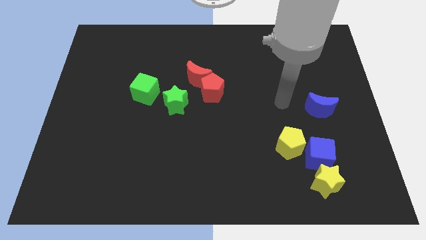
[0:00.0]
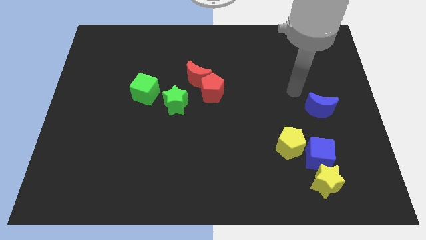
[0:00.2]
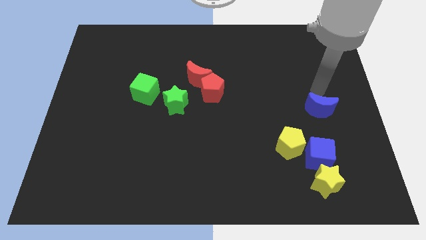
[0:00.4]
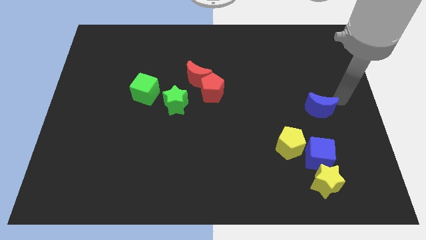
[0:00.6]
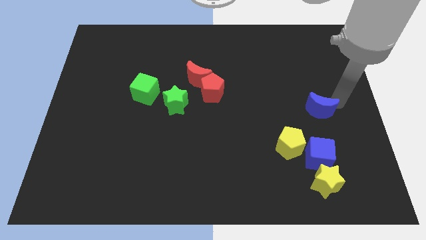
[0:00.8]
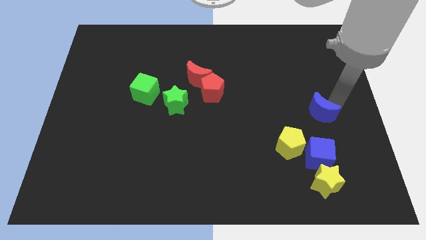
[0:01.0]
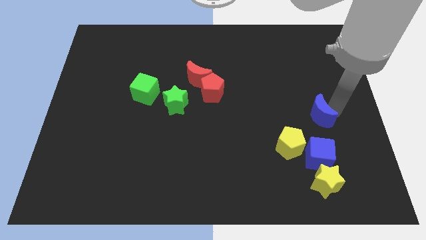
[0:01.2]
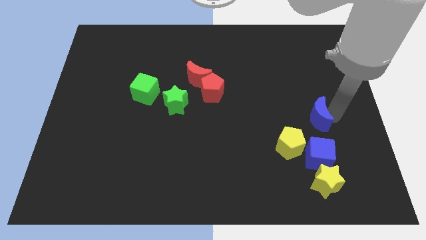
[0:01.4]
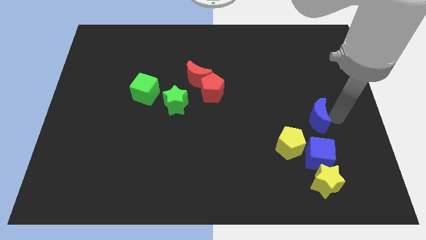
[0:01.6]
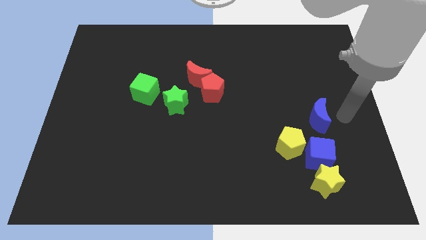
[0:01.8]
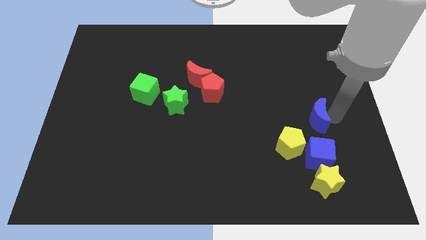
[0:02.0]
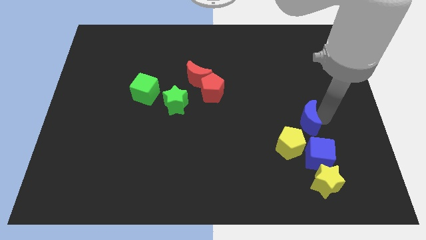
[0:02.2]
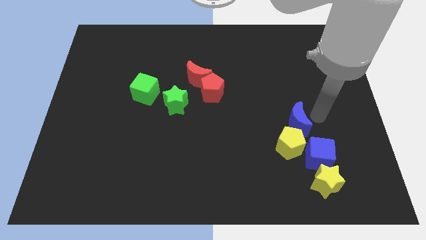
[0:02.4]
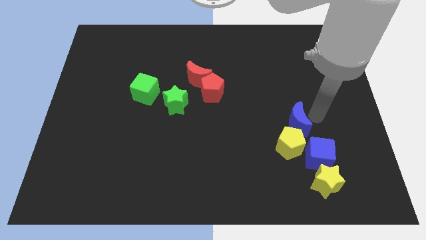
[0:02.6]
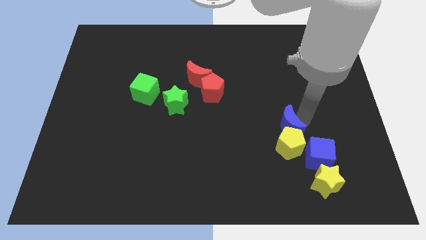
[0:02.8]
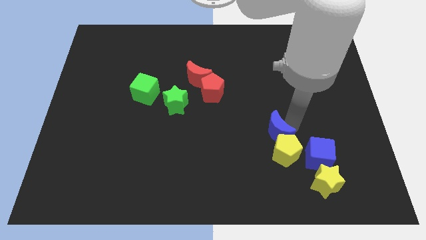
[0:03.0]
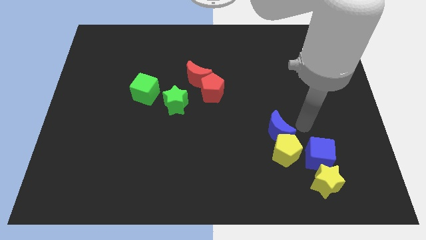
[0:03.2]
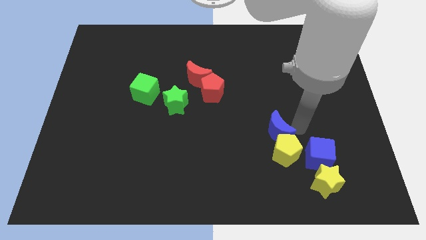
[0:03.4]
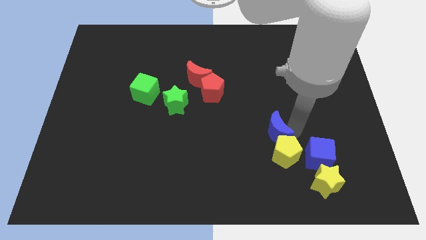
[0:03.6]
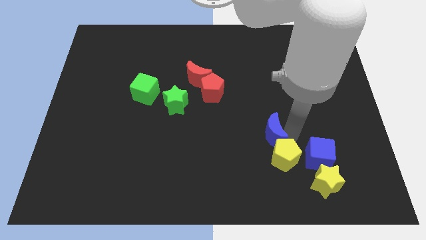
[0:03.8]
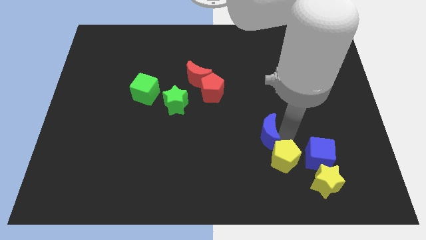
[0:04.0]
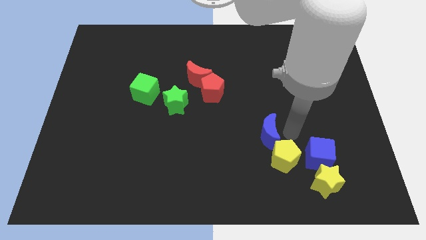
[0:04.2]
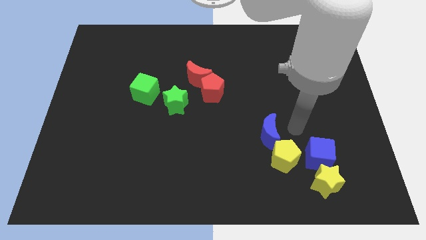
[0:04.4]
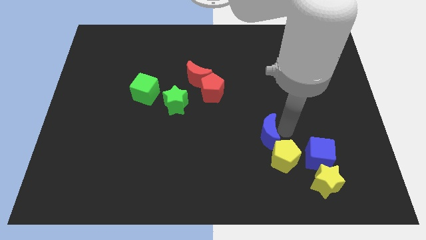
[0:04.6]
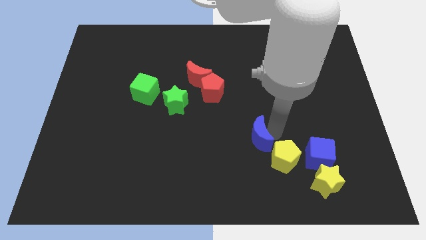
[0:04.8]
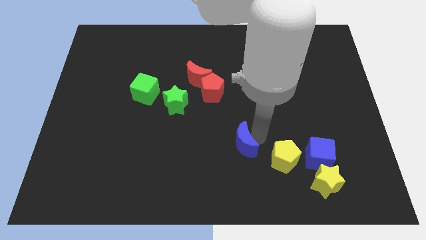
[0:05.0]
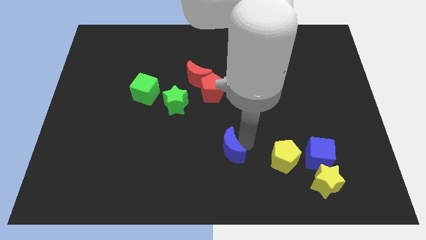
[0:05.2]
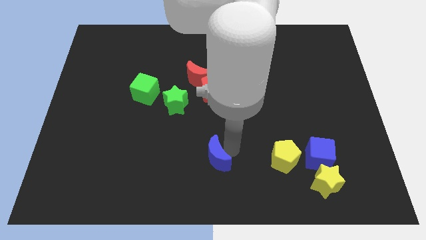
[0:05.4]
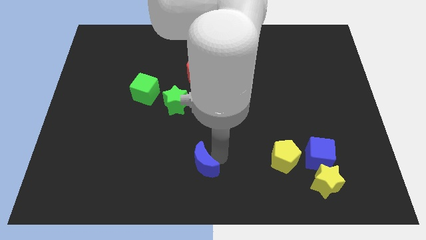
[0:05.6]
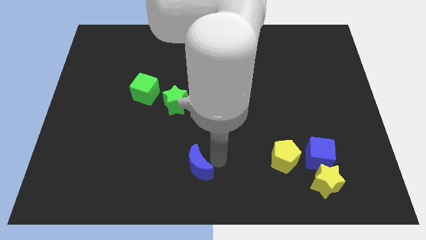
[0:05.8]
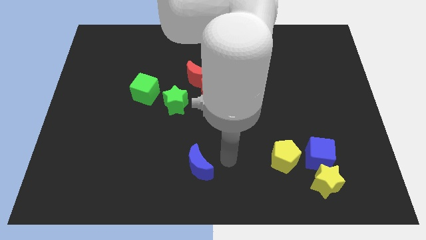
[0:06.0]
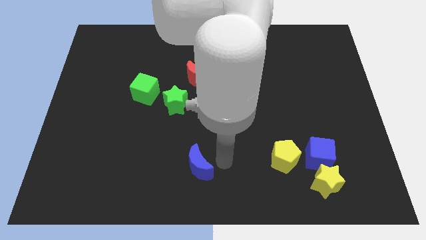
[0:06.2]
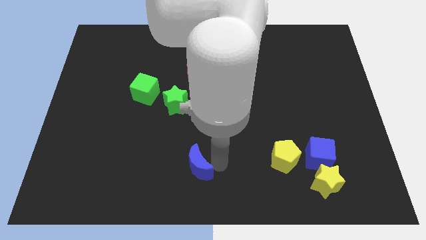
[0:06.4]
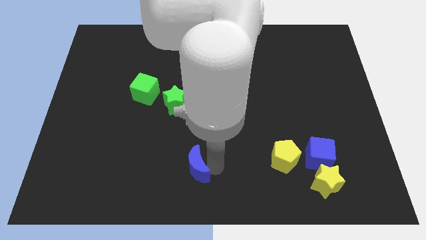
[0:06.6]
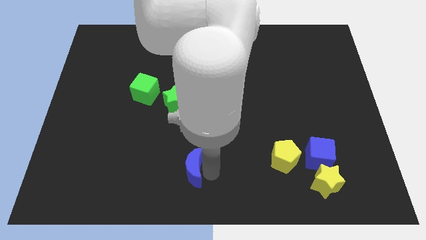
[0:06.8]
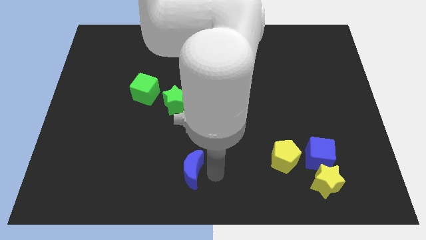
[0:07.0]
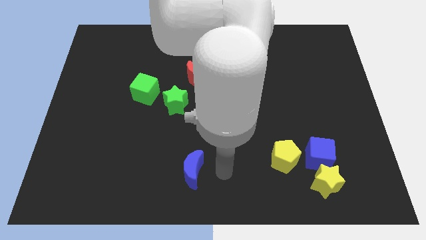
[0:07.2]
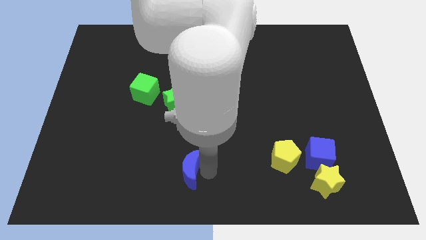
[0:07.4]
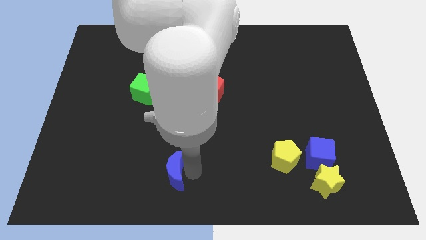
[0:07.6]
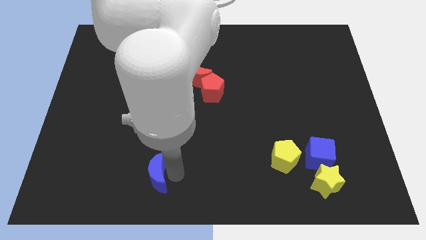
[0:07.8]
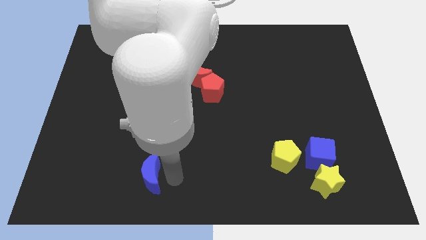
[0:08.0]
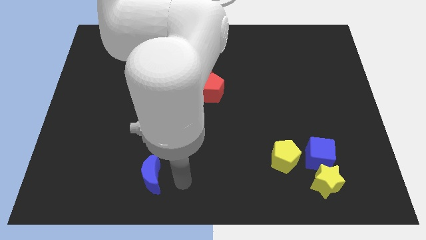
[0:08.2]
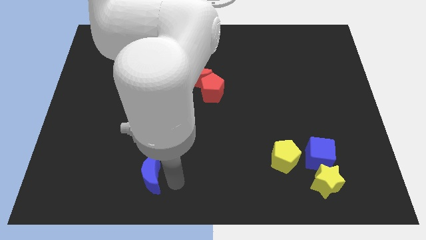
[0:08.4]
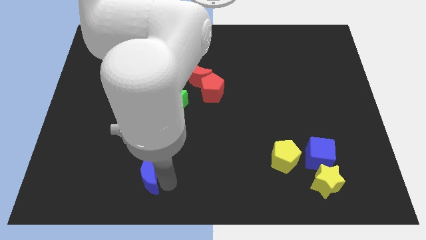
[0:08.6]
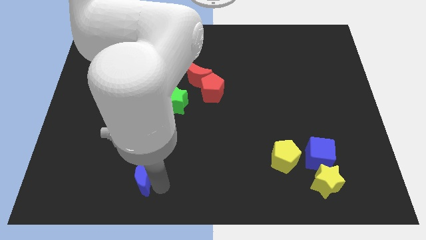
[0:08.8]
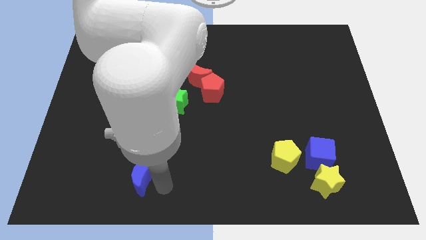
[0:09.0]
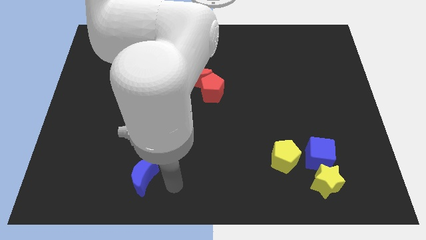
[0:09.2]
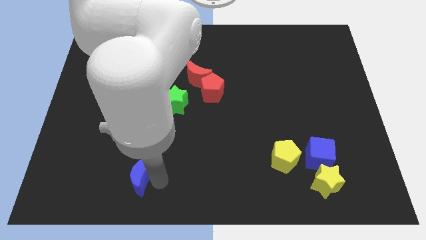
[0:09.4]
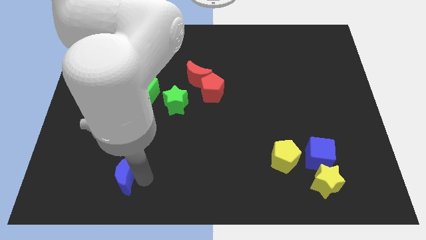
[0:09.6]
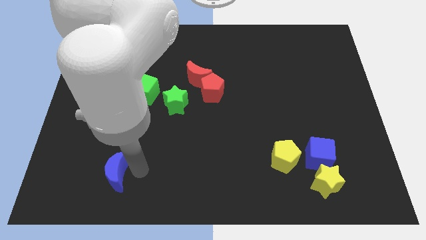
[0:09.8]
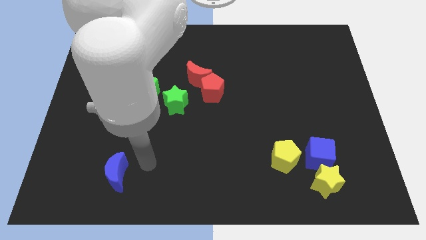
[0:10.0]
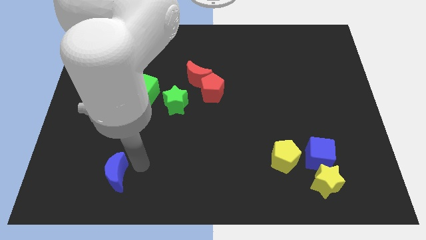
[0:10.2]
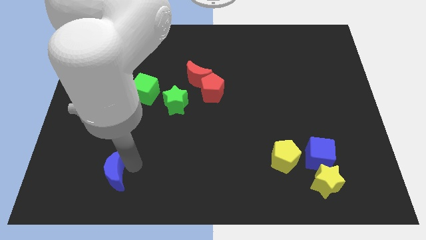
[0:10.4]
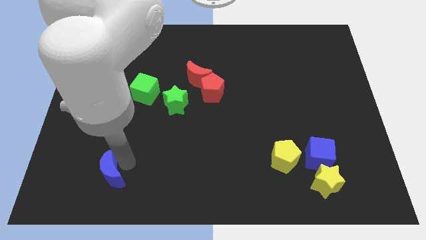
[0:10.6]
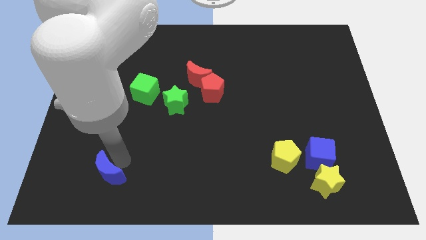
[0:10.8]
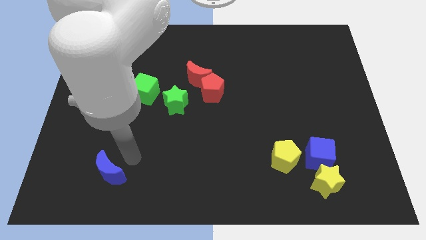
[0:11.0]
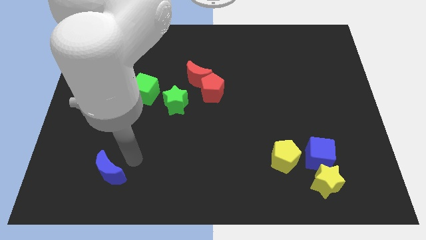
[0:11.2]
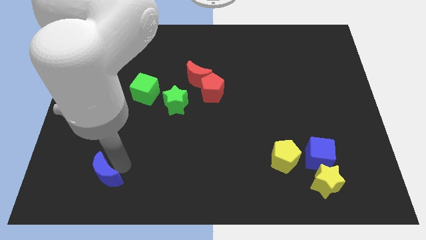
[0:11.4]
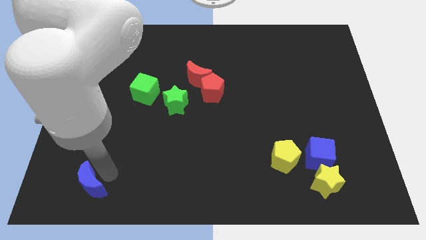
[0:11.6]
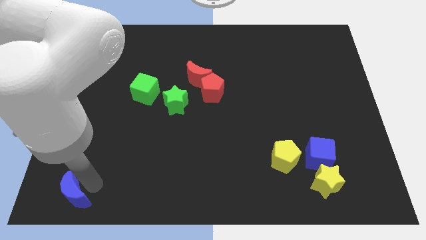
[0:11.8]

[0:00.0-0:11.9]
slide the blue moon to the bottom left corner

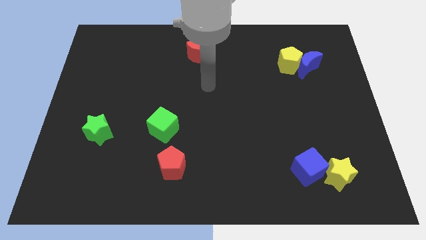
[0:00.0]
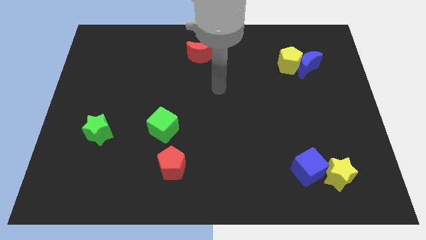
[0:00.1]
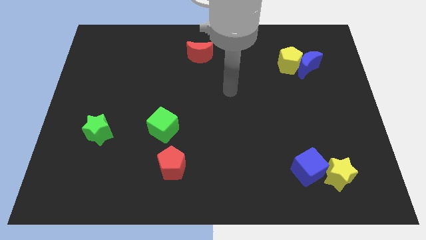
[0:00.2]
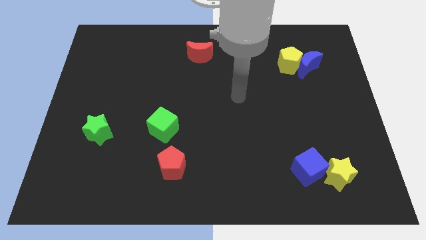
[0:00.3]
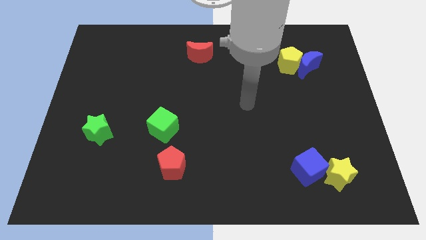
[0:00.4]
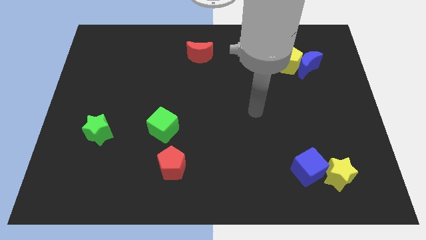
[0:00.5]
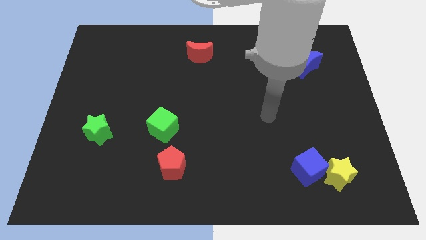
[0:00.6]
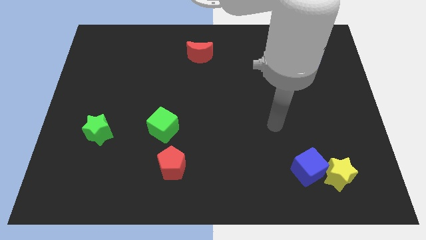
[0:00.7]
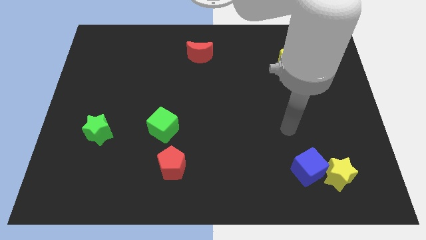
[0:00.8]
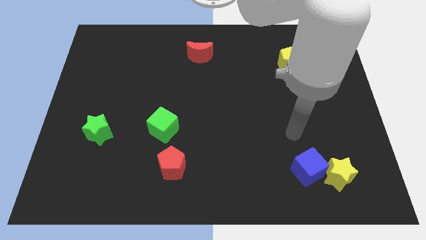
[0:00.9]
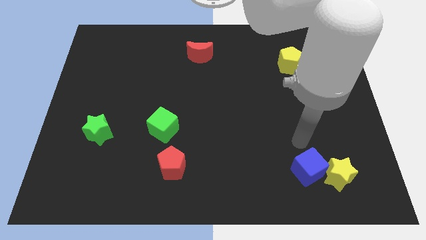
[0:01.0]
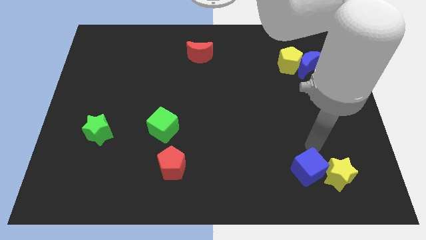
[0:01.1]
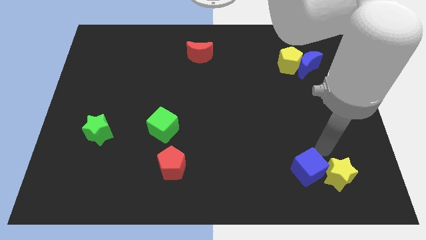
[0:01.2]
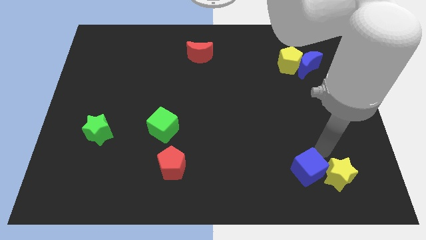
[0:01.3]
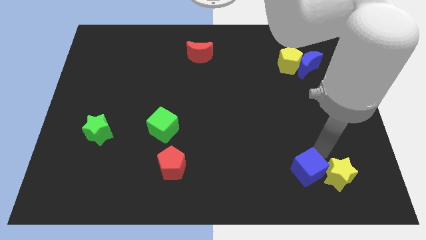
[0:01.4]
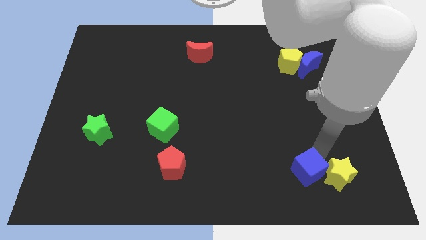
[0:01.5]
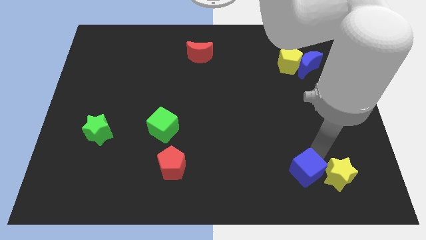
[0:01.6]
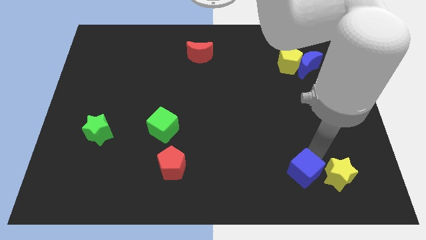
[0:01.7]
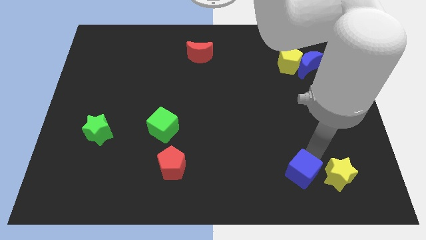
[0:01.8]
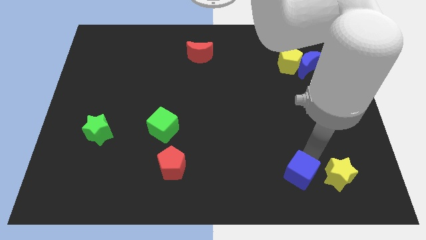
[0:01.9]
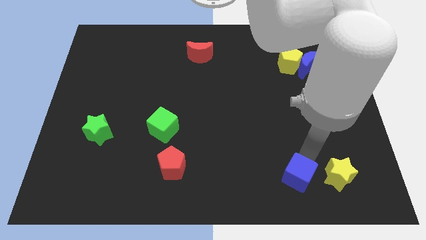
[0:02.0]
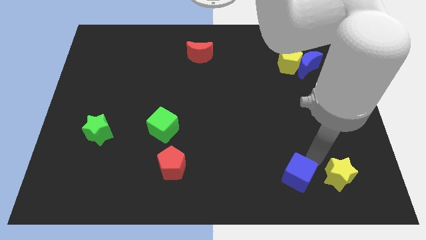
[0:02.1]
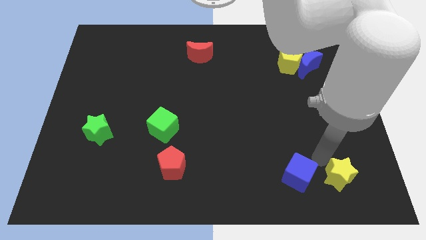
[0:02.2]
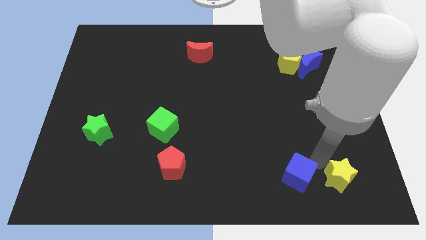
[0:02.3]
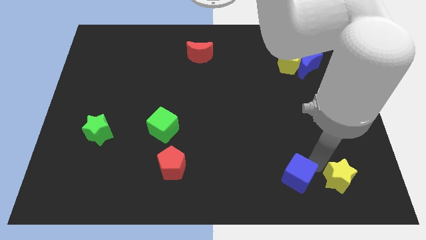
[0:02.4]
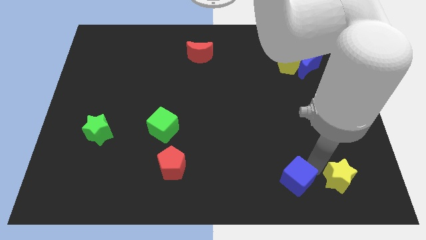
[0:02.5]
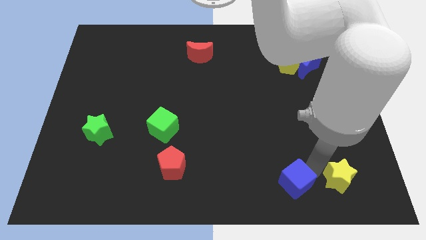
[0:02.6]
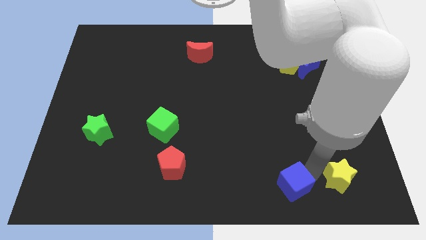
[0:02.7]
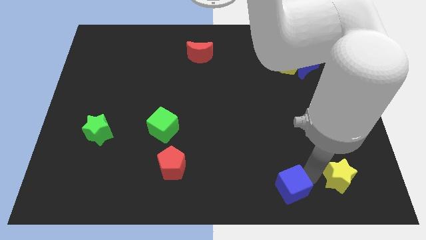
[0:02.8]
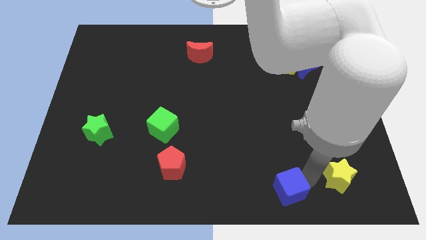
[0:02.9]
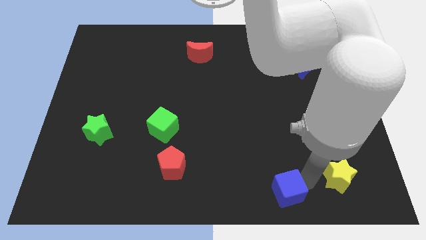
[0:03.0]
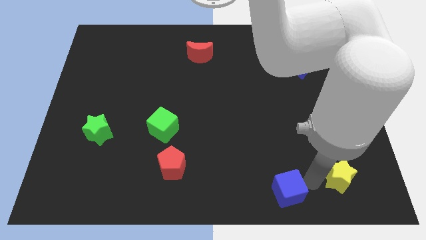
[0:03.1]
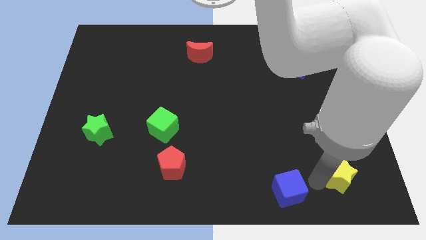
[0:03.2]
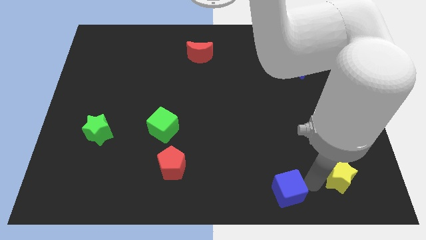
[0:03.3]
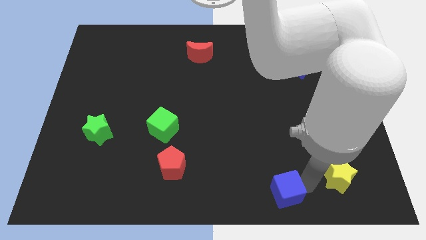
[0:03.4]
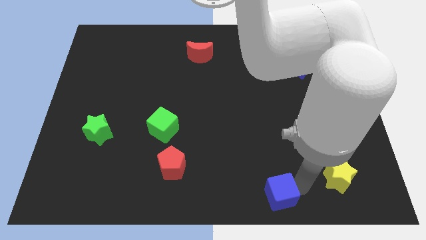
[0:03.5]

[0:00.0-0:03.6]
slide the blue cube to the bottom side
